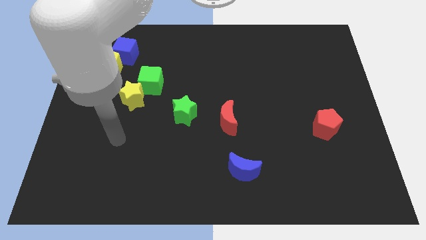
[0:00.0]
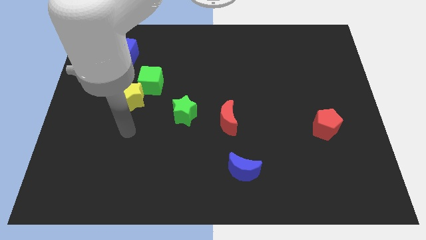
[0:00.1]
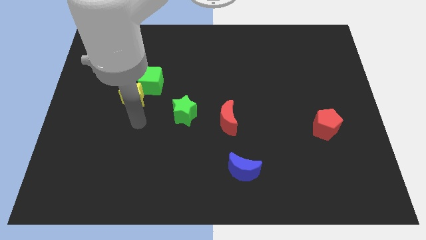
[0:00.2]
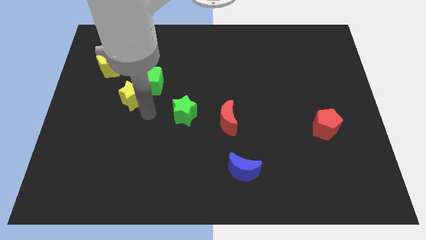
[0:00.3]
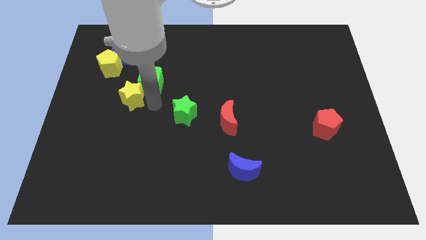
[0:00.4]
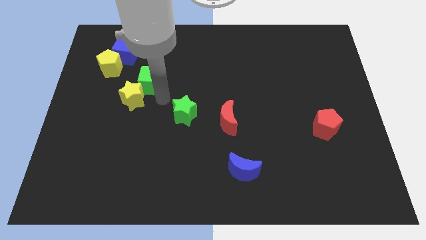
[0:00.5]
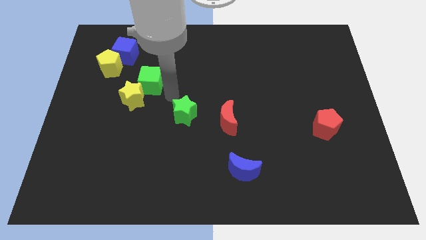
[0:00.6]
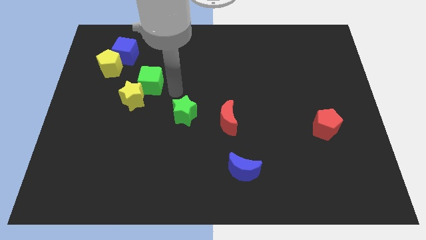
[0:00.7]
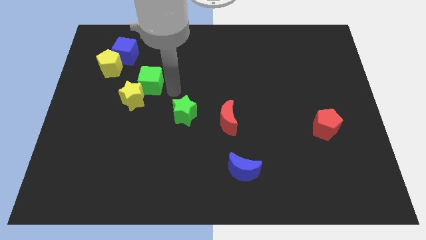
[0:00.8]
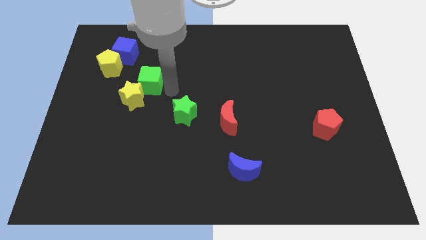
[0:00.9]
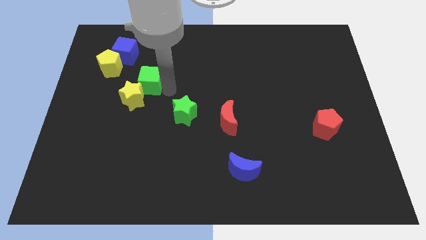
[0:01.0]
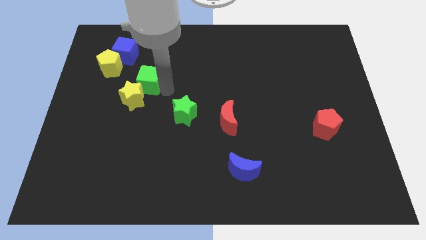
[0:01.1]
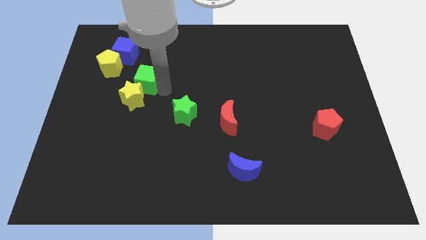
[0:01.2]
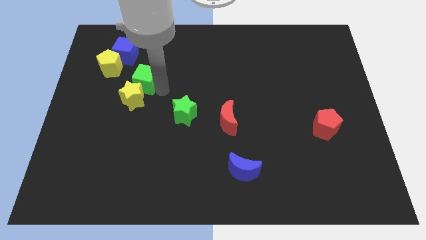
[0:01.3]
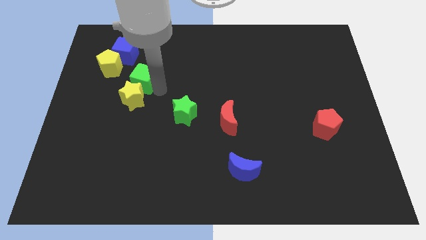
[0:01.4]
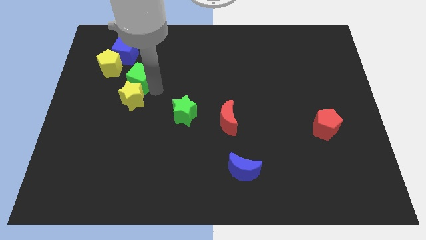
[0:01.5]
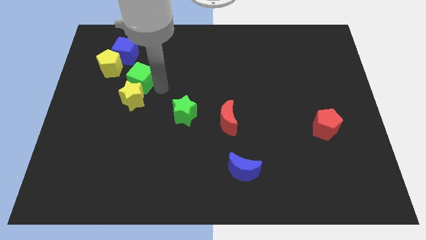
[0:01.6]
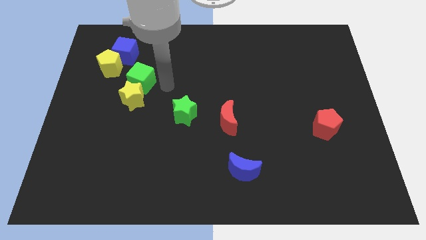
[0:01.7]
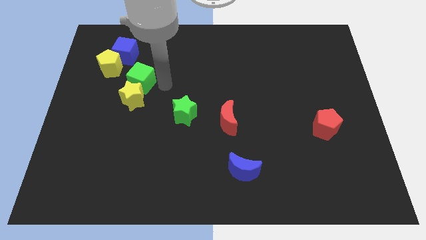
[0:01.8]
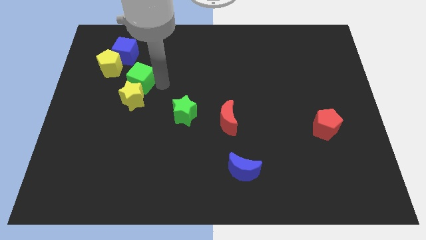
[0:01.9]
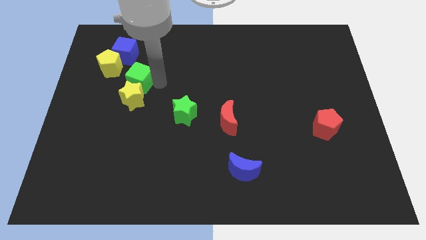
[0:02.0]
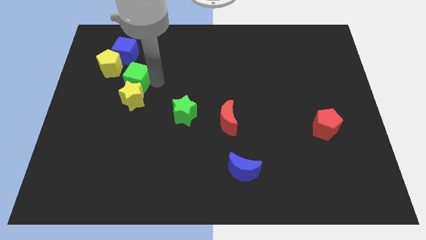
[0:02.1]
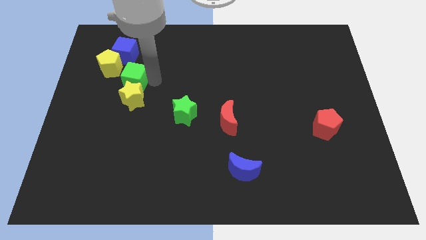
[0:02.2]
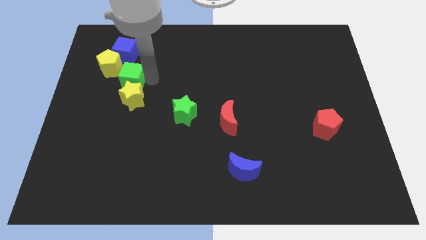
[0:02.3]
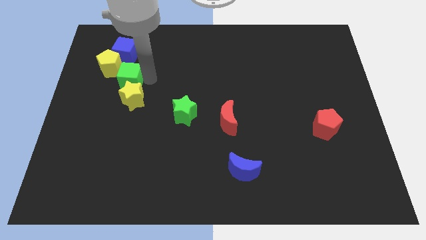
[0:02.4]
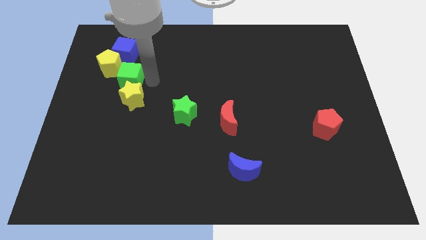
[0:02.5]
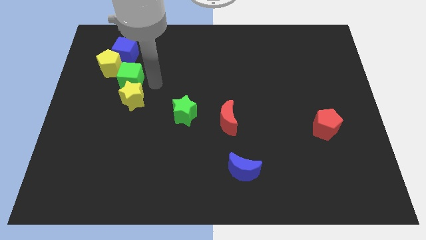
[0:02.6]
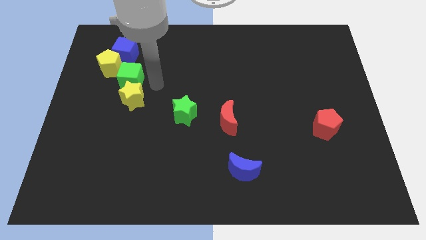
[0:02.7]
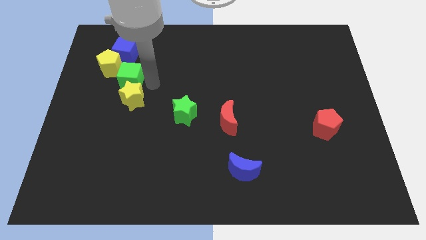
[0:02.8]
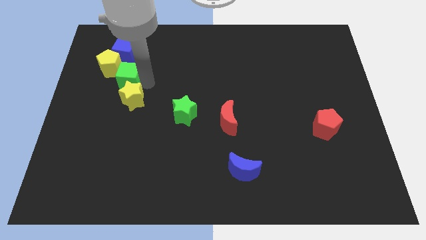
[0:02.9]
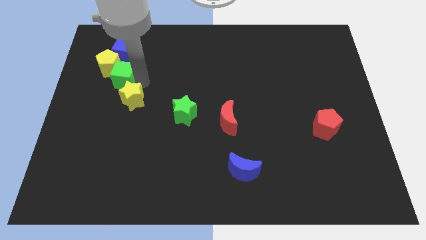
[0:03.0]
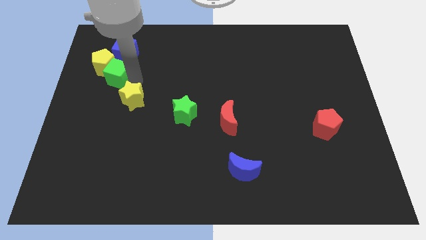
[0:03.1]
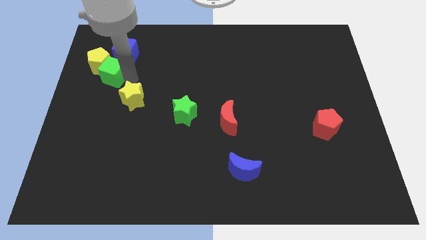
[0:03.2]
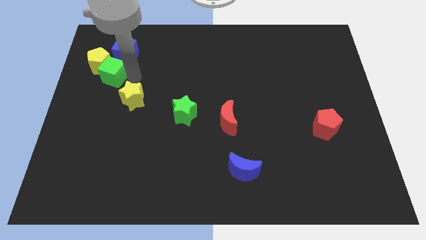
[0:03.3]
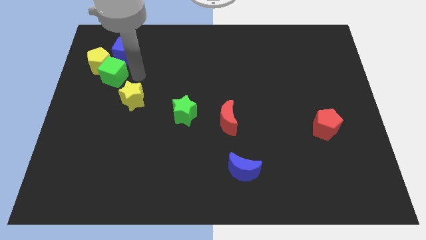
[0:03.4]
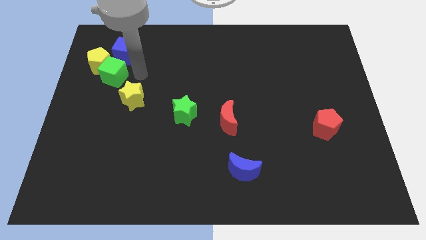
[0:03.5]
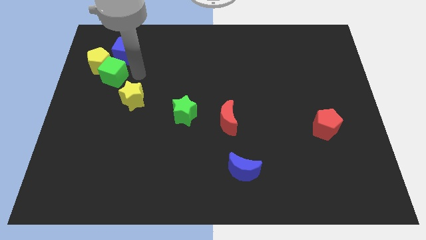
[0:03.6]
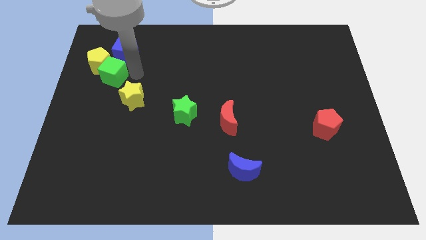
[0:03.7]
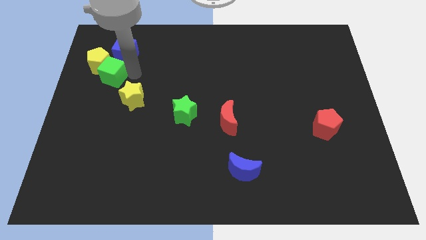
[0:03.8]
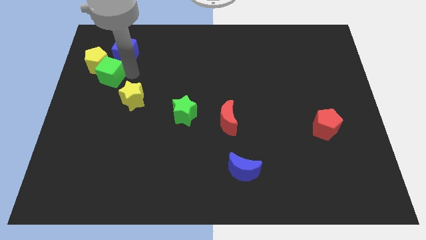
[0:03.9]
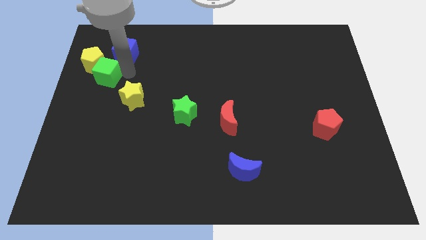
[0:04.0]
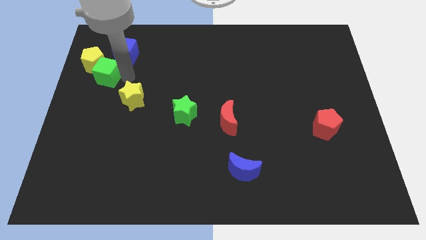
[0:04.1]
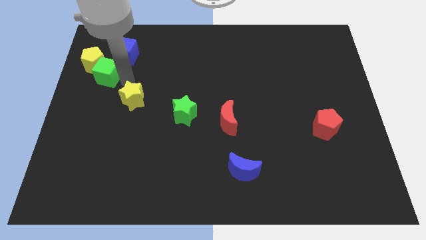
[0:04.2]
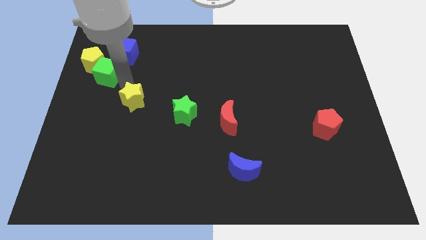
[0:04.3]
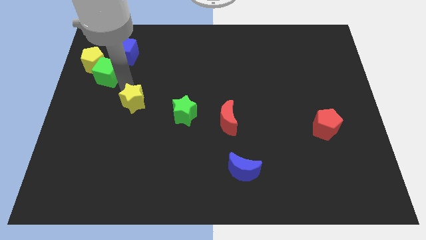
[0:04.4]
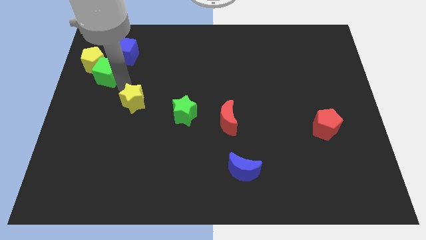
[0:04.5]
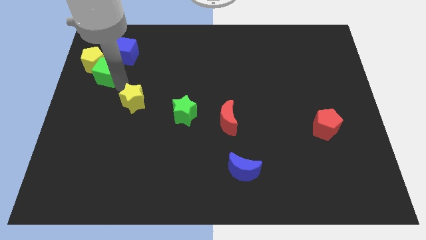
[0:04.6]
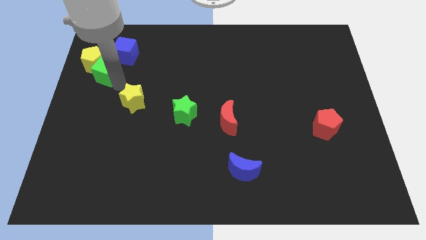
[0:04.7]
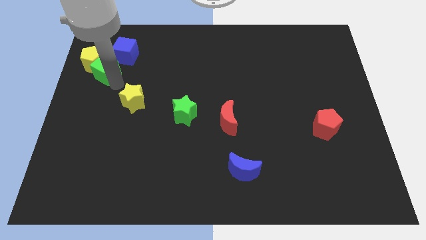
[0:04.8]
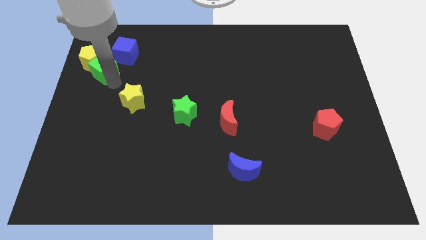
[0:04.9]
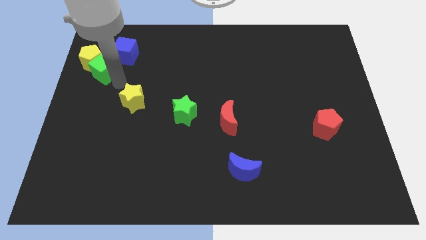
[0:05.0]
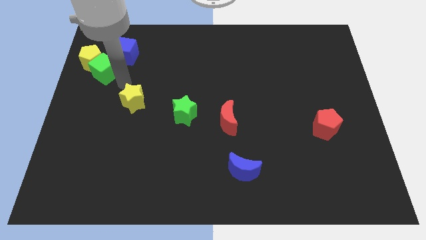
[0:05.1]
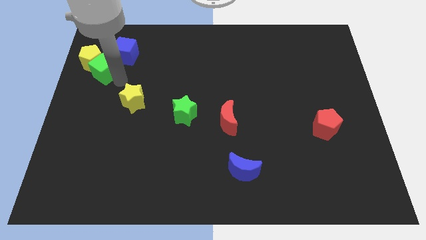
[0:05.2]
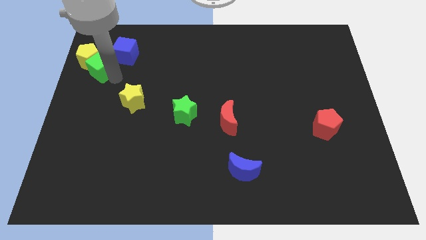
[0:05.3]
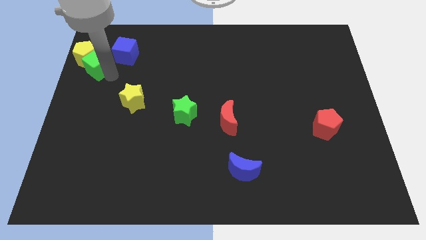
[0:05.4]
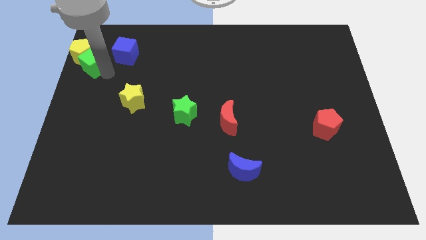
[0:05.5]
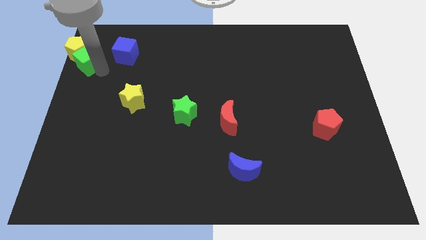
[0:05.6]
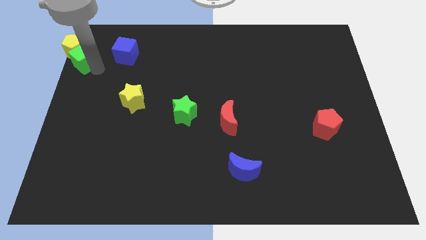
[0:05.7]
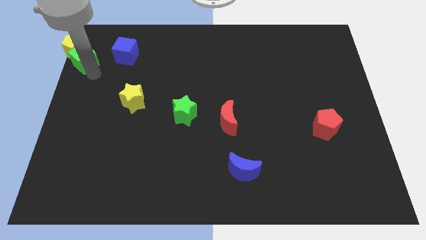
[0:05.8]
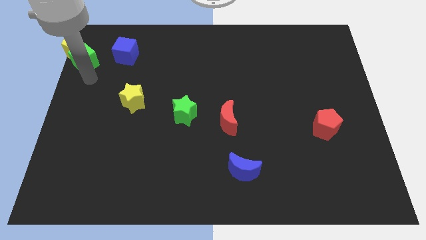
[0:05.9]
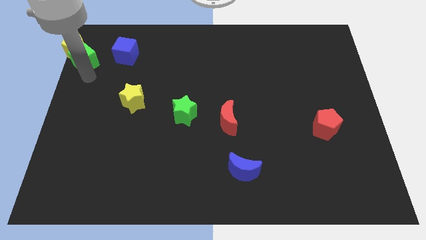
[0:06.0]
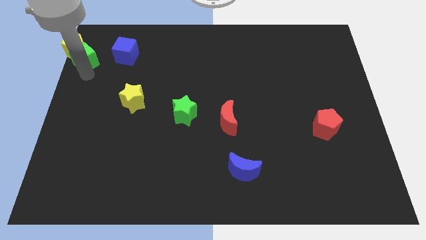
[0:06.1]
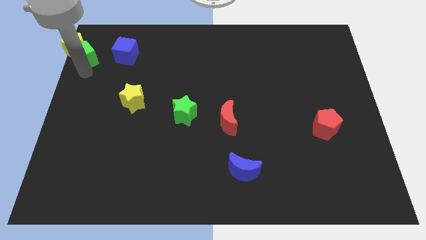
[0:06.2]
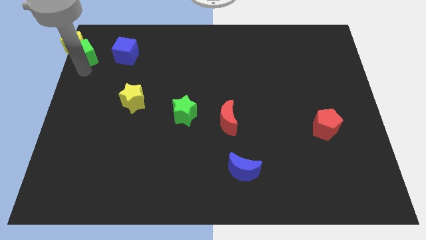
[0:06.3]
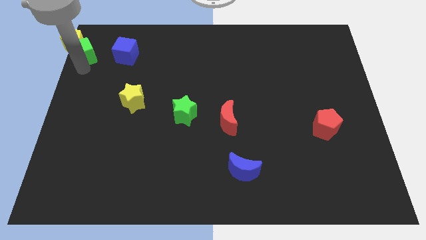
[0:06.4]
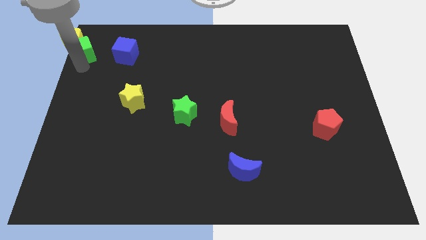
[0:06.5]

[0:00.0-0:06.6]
push the green cube to the top left of the board

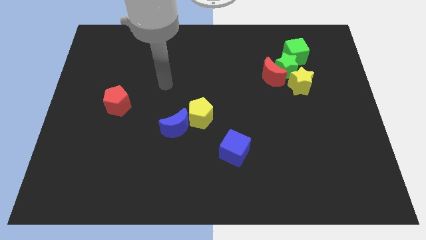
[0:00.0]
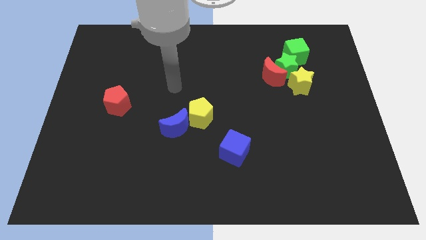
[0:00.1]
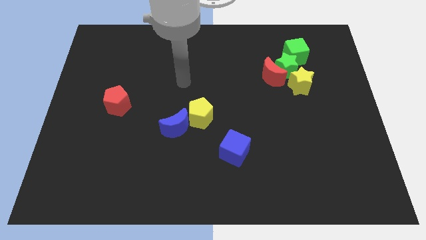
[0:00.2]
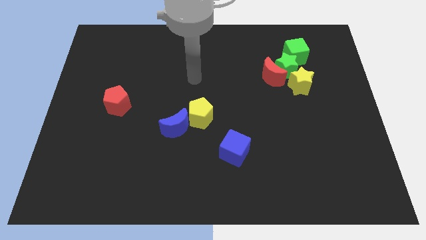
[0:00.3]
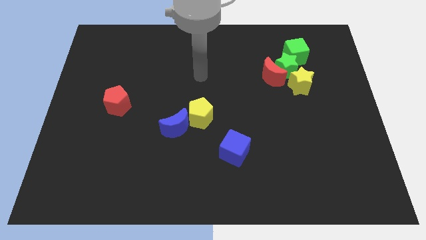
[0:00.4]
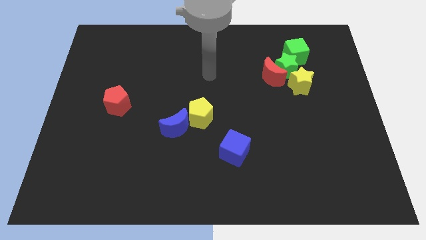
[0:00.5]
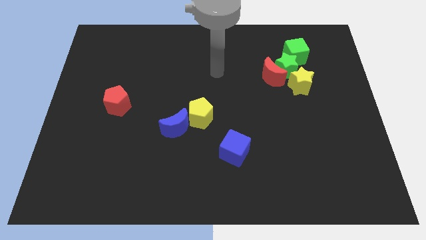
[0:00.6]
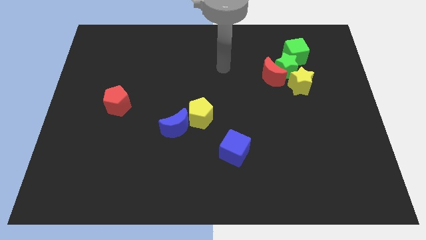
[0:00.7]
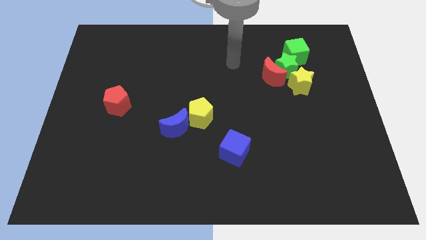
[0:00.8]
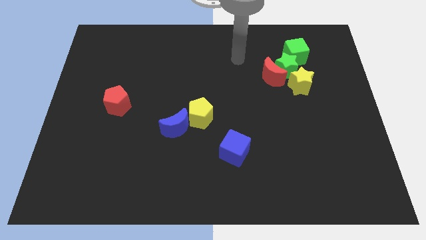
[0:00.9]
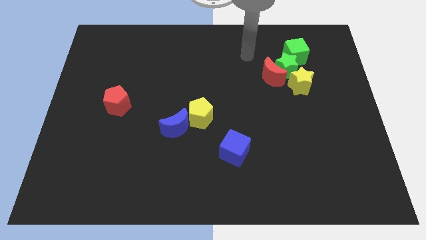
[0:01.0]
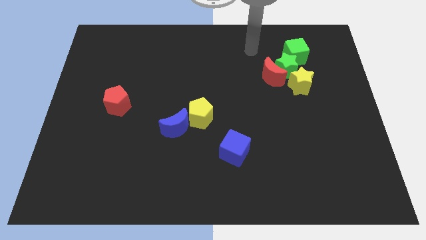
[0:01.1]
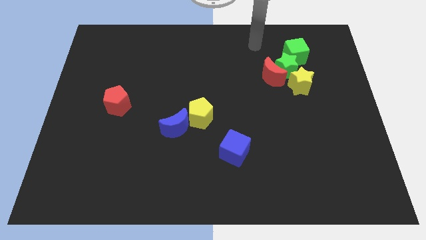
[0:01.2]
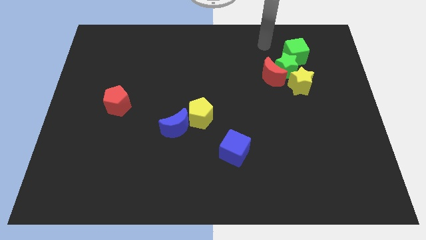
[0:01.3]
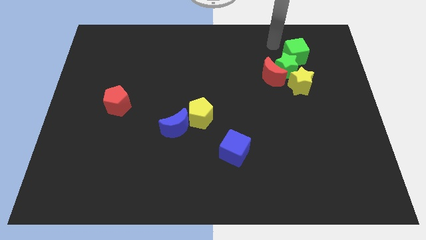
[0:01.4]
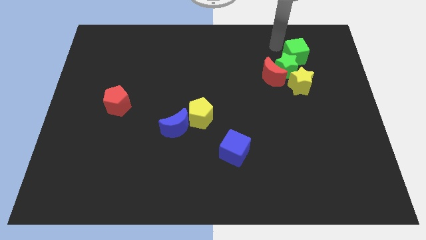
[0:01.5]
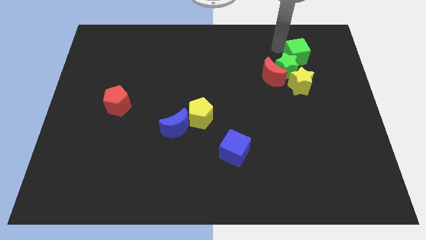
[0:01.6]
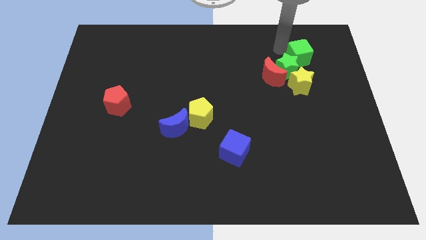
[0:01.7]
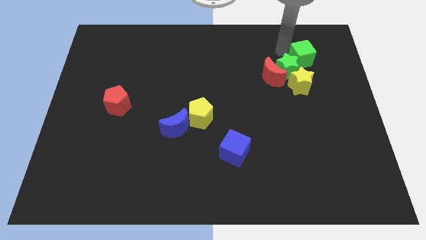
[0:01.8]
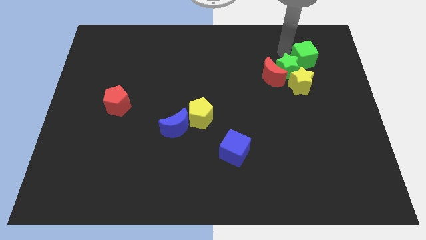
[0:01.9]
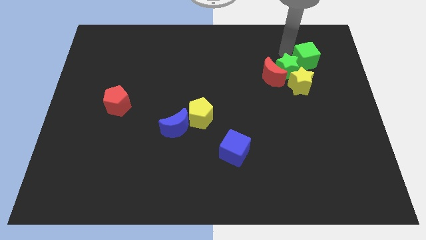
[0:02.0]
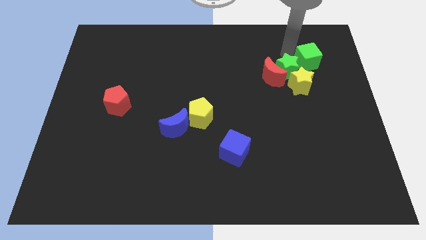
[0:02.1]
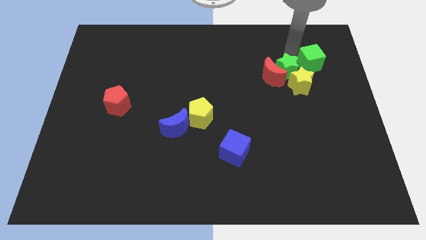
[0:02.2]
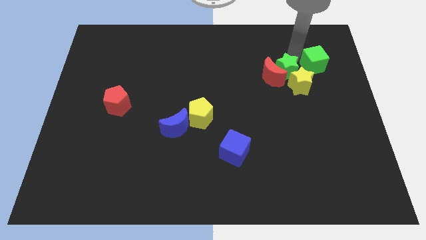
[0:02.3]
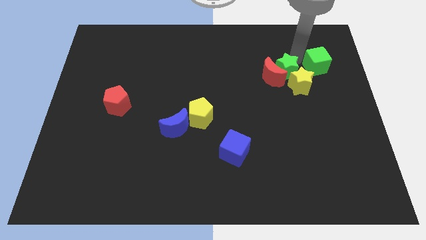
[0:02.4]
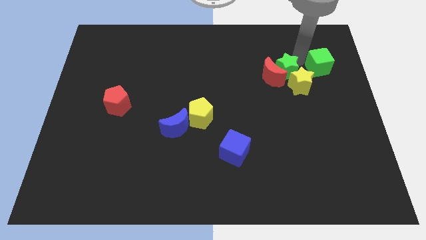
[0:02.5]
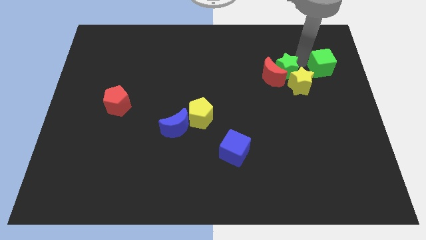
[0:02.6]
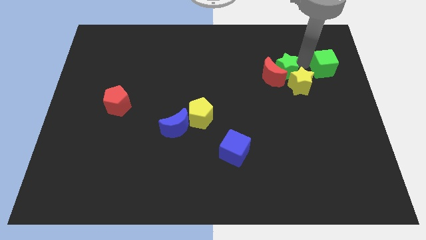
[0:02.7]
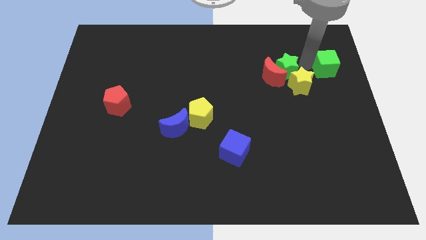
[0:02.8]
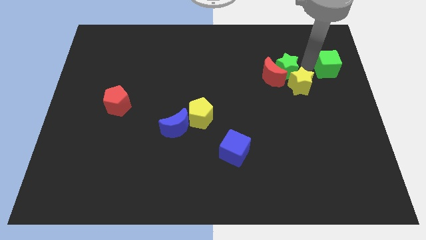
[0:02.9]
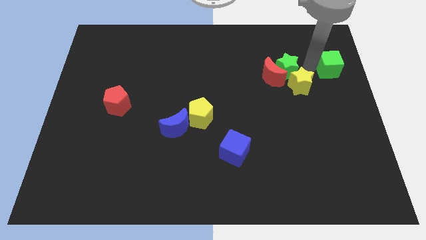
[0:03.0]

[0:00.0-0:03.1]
push the green cube to the center right
